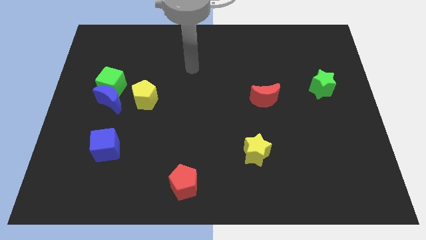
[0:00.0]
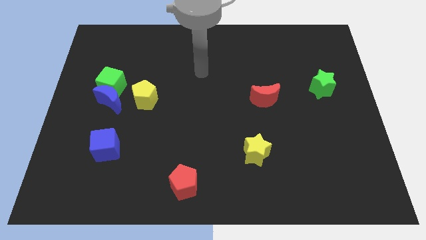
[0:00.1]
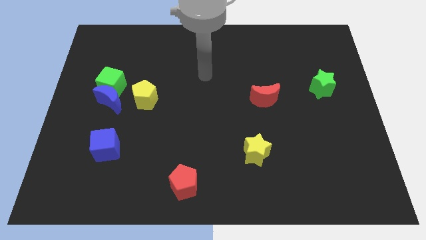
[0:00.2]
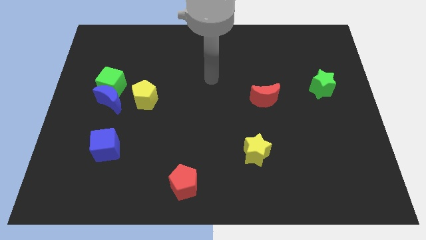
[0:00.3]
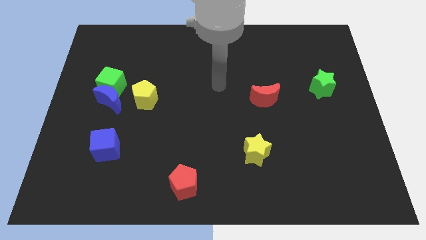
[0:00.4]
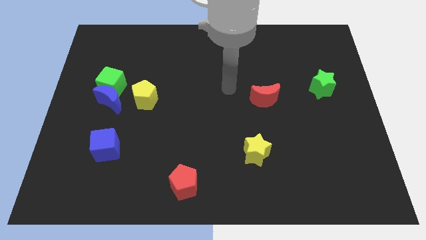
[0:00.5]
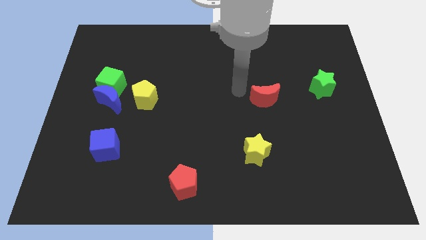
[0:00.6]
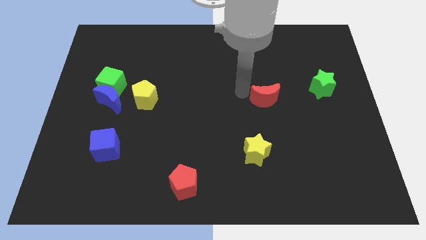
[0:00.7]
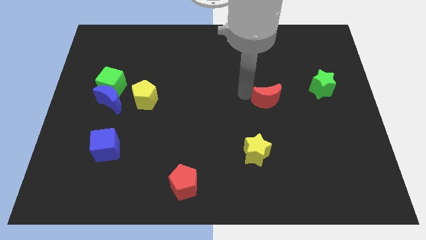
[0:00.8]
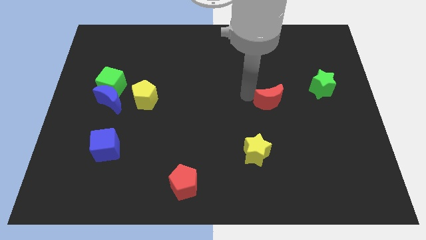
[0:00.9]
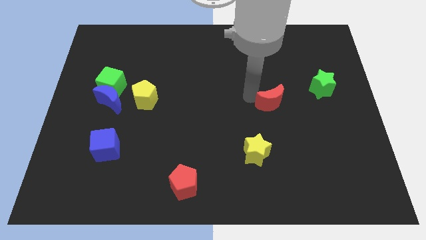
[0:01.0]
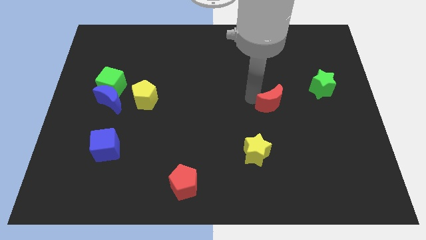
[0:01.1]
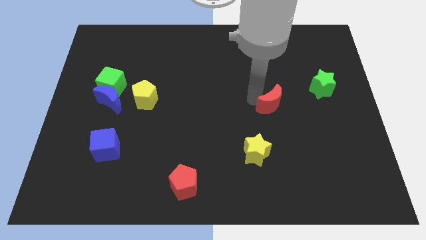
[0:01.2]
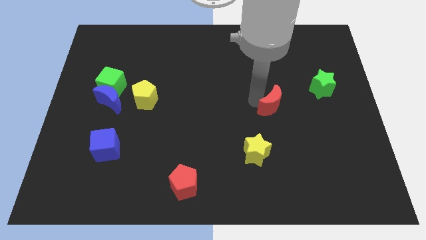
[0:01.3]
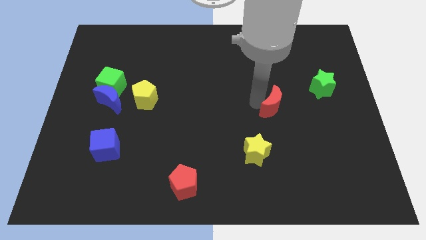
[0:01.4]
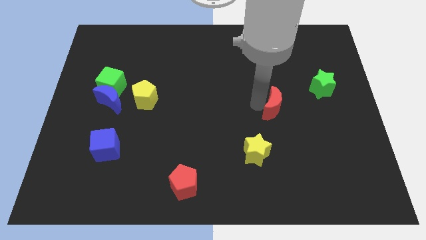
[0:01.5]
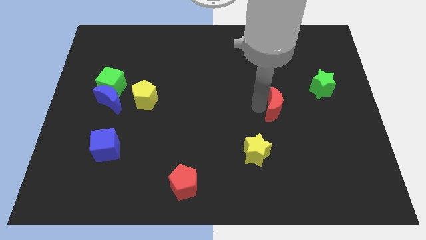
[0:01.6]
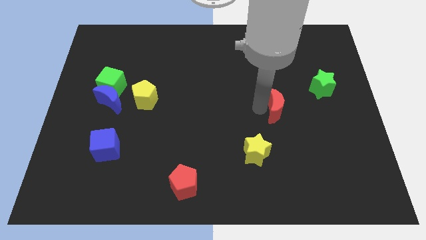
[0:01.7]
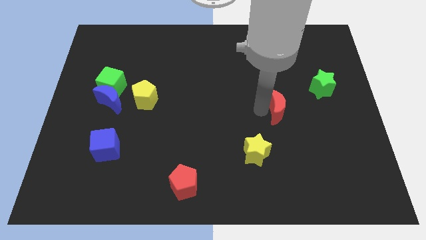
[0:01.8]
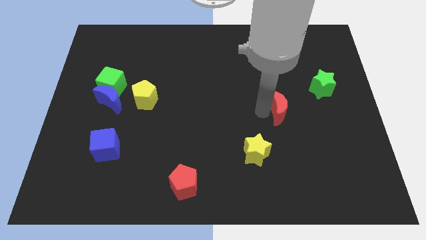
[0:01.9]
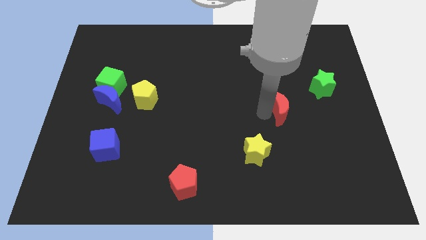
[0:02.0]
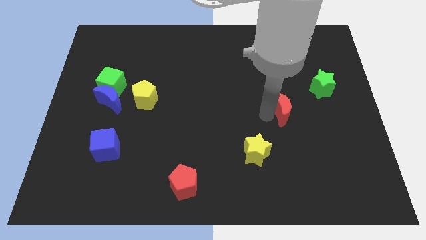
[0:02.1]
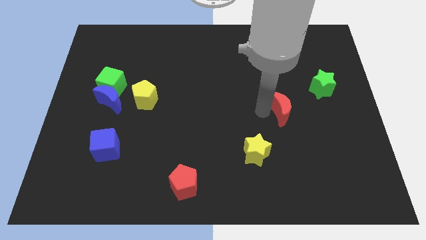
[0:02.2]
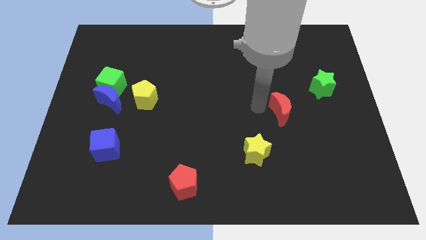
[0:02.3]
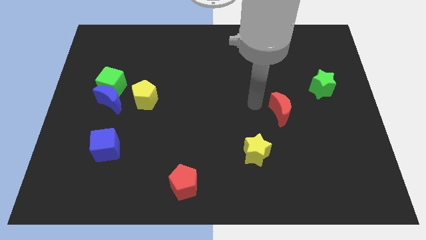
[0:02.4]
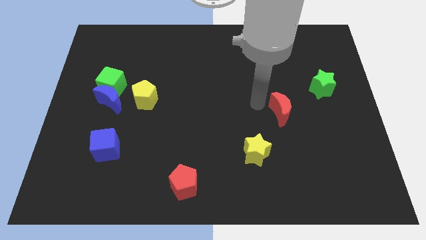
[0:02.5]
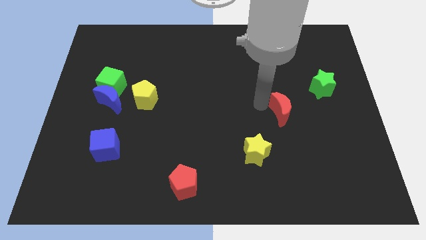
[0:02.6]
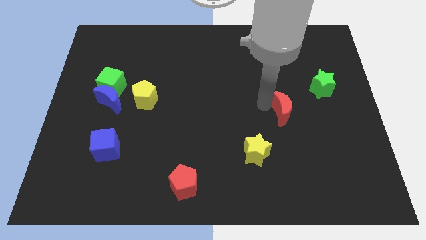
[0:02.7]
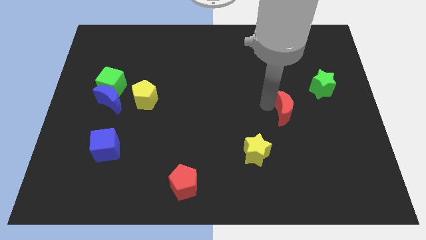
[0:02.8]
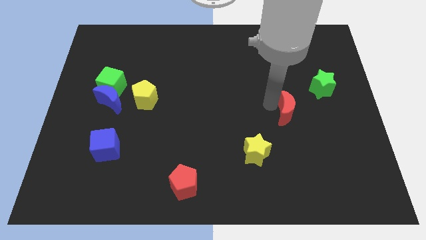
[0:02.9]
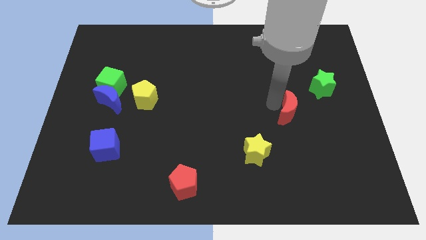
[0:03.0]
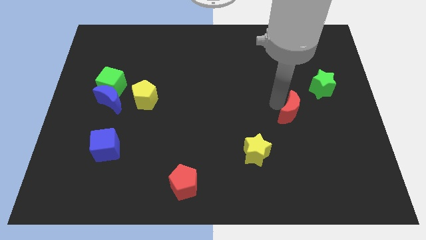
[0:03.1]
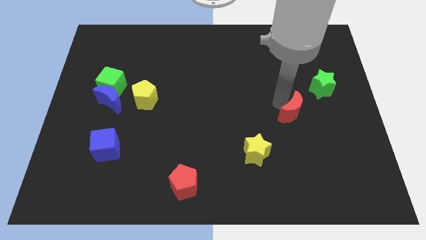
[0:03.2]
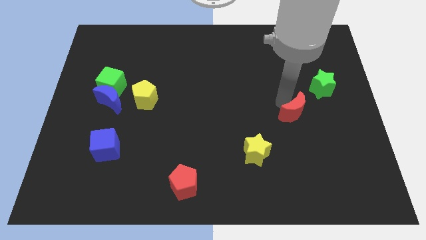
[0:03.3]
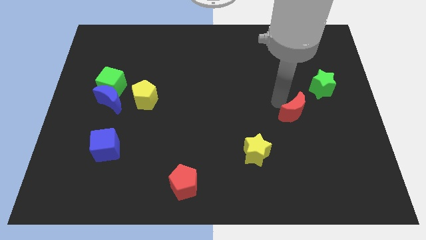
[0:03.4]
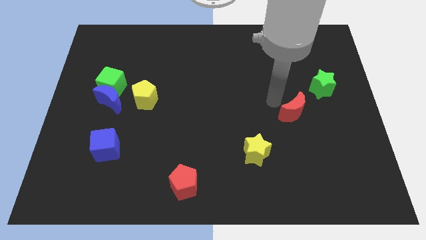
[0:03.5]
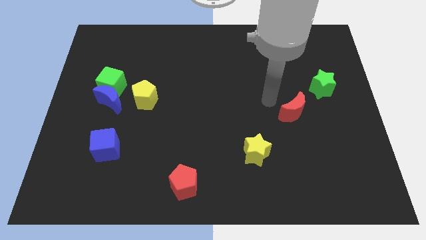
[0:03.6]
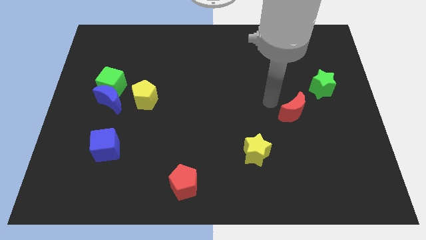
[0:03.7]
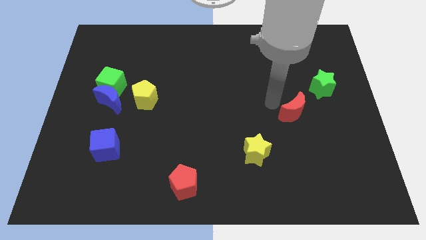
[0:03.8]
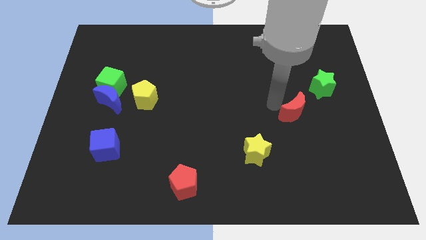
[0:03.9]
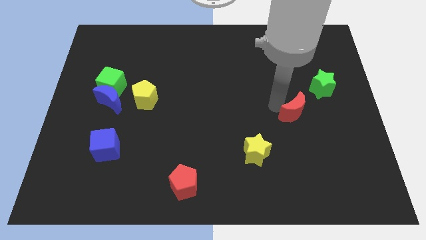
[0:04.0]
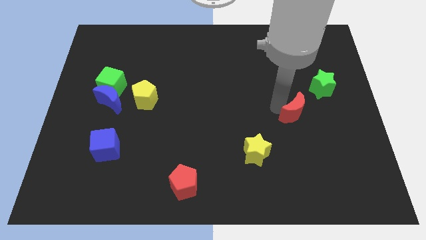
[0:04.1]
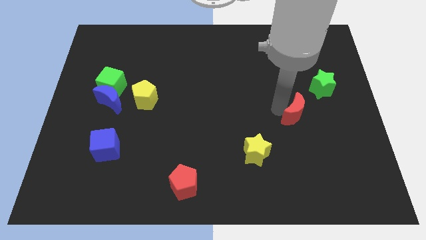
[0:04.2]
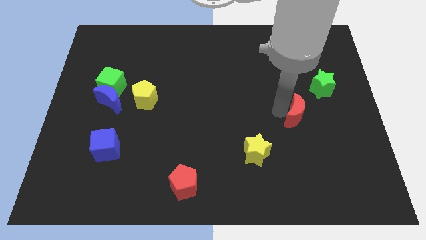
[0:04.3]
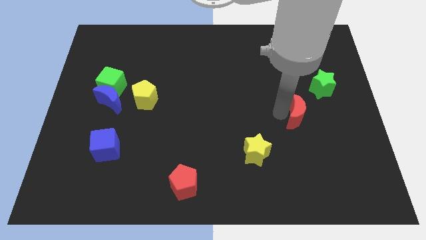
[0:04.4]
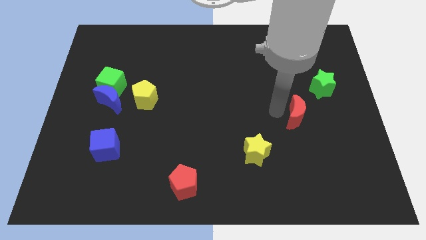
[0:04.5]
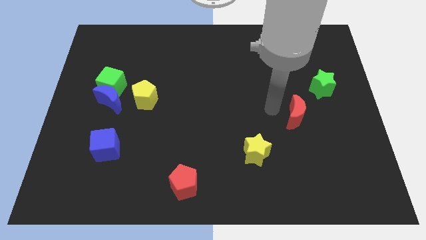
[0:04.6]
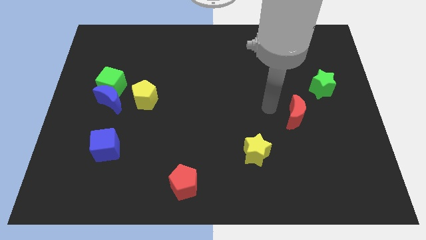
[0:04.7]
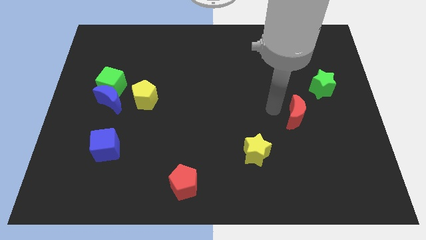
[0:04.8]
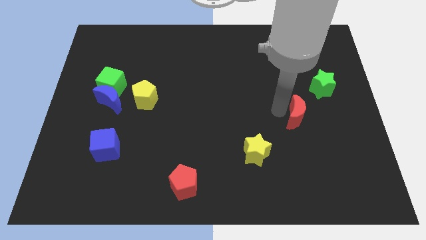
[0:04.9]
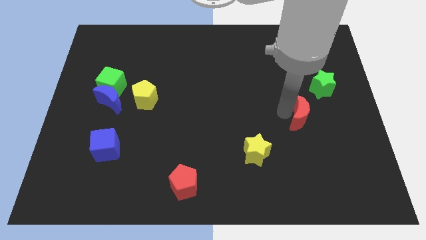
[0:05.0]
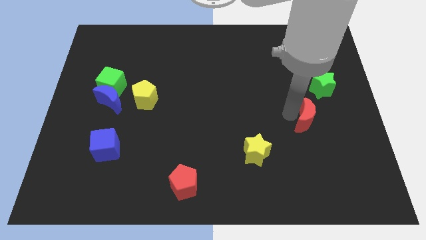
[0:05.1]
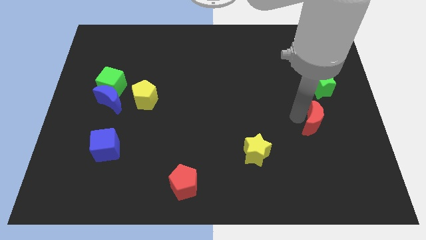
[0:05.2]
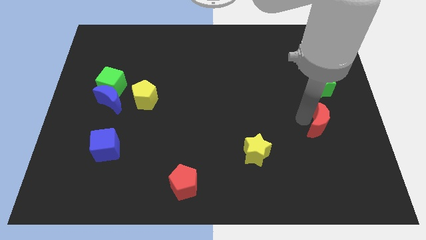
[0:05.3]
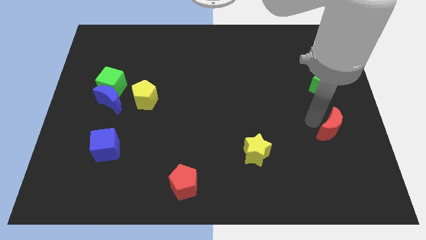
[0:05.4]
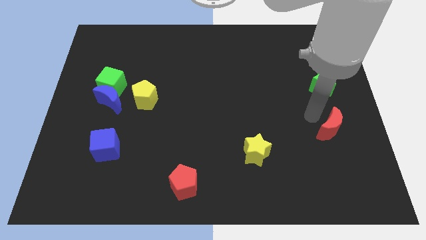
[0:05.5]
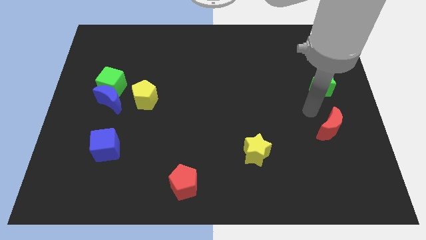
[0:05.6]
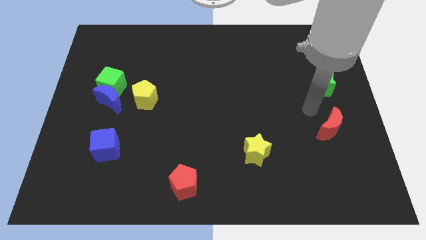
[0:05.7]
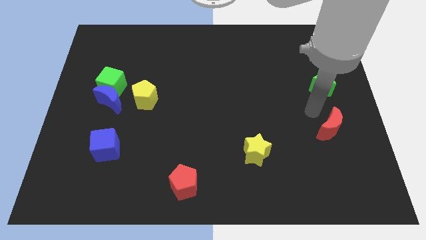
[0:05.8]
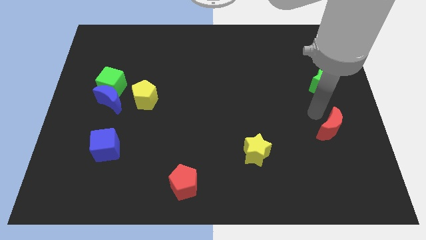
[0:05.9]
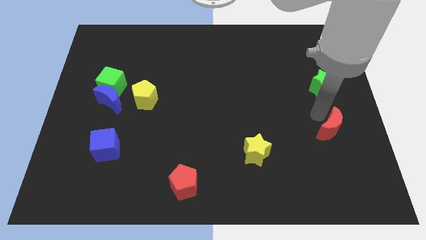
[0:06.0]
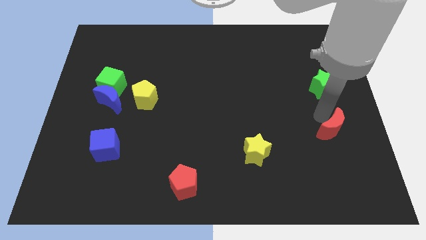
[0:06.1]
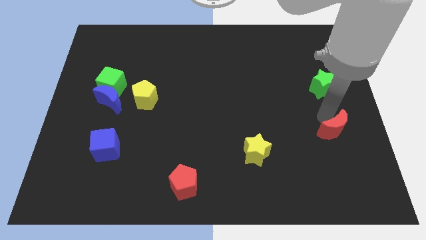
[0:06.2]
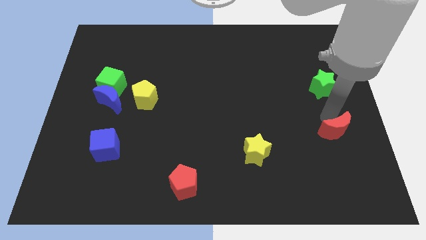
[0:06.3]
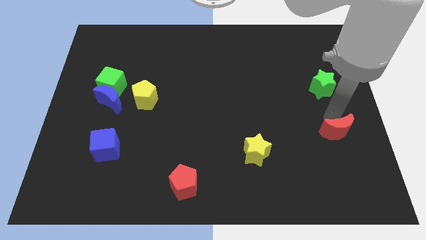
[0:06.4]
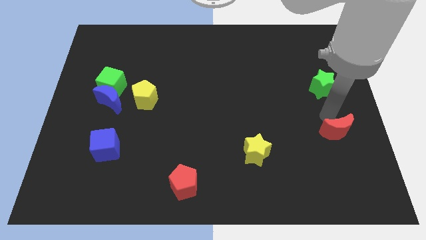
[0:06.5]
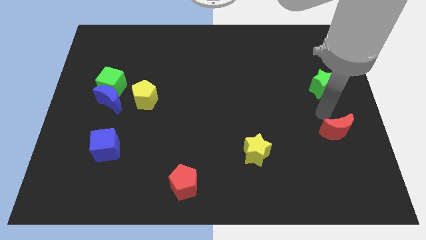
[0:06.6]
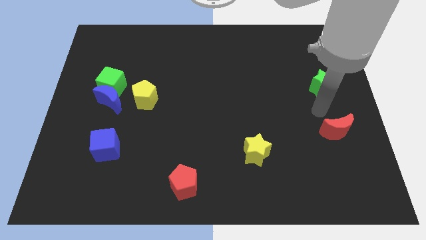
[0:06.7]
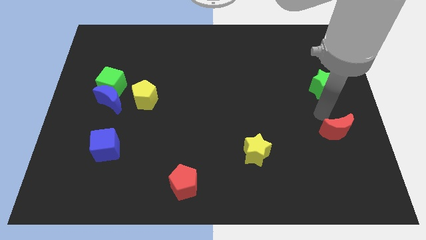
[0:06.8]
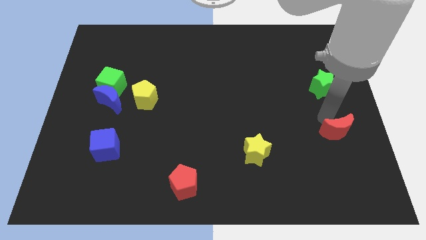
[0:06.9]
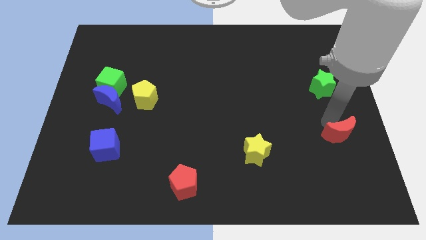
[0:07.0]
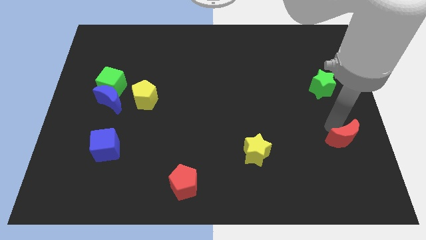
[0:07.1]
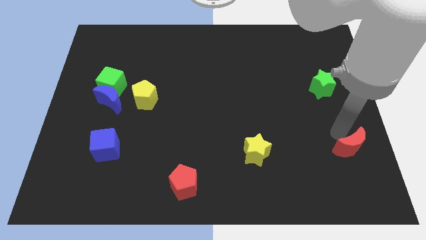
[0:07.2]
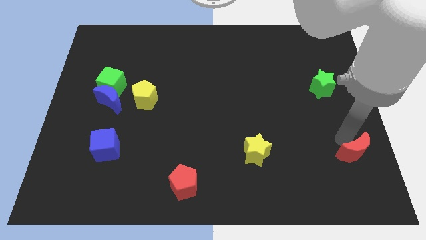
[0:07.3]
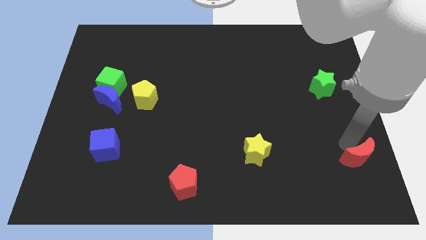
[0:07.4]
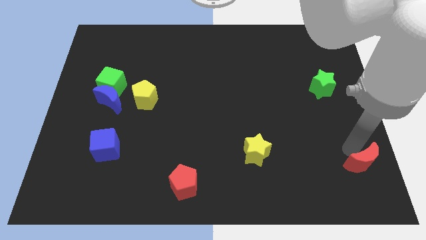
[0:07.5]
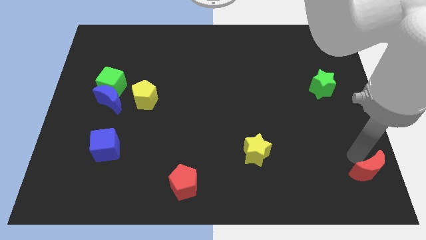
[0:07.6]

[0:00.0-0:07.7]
push the red moon to the bottom right
